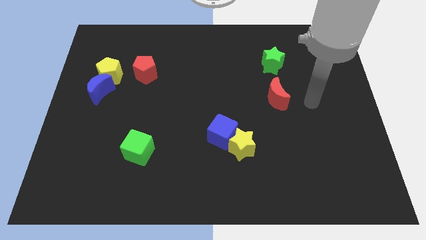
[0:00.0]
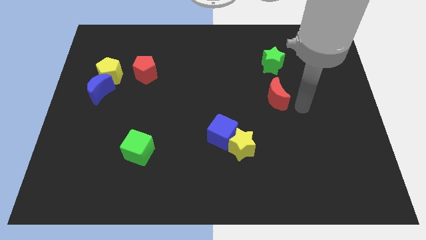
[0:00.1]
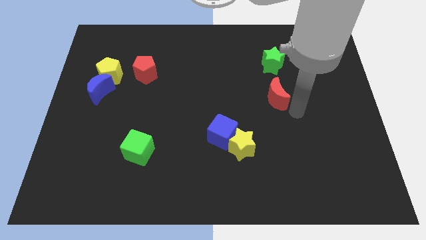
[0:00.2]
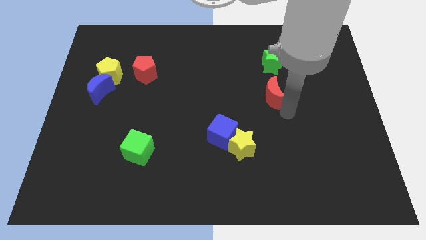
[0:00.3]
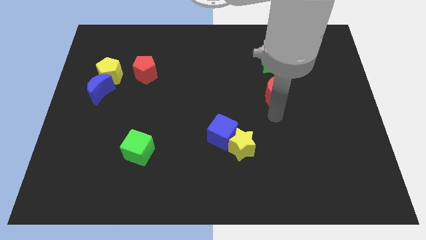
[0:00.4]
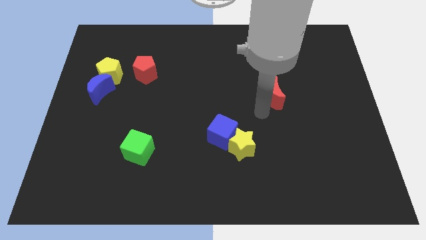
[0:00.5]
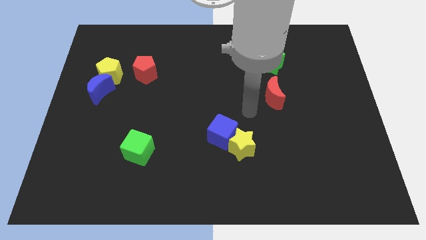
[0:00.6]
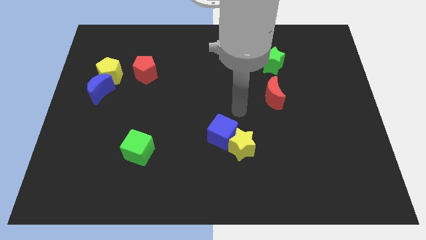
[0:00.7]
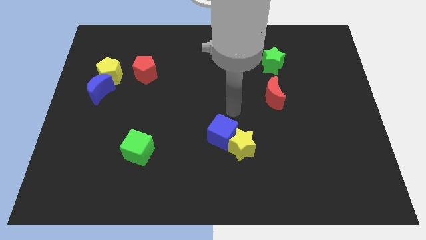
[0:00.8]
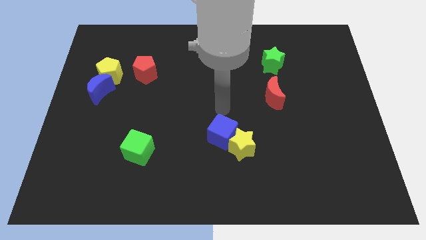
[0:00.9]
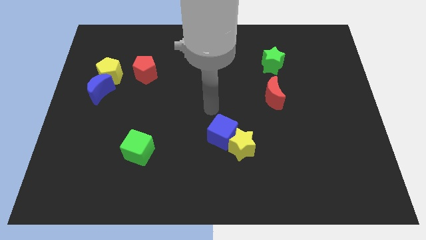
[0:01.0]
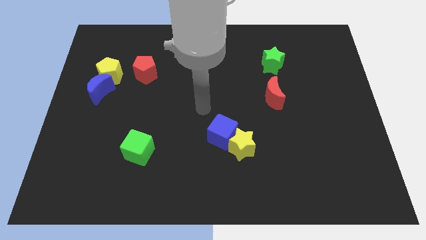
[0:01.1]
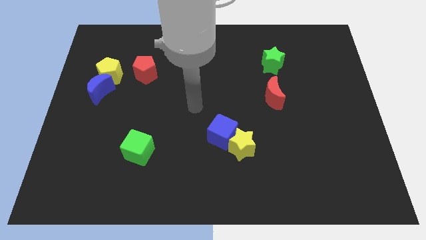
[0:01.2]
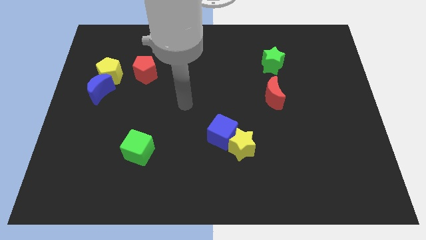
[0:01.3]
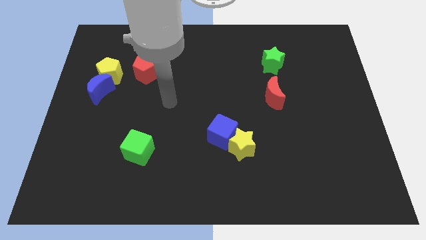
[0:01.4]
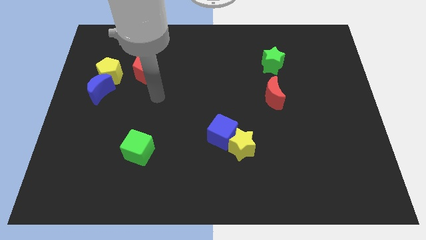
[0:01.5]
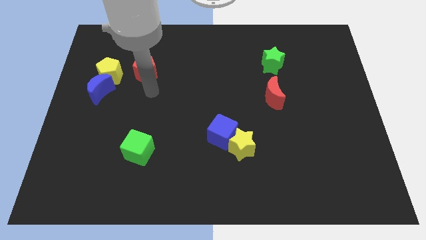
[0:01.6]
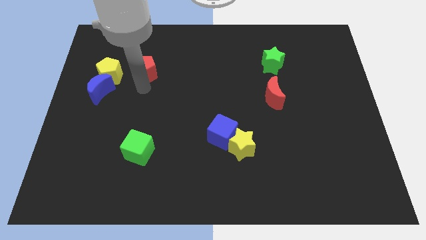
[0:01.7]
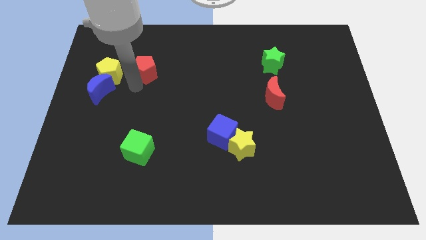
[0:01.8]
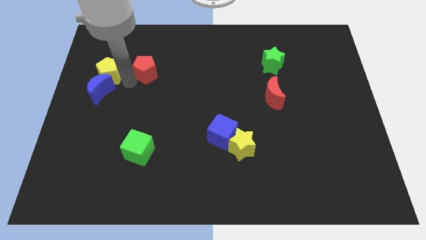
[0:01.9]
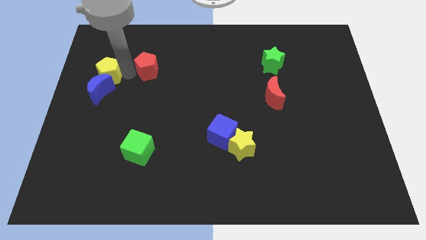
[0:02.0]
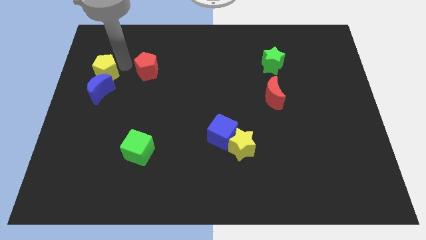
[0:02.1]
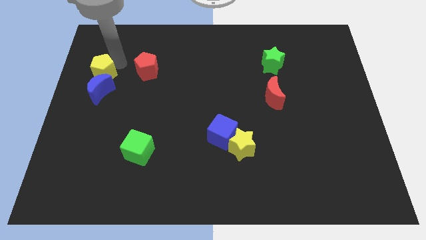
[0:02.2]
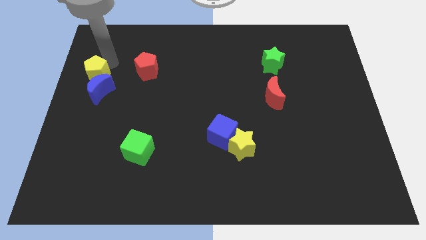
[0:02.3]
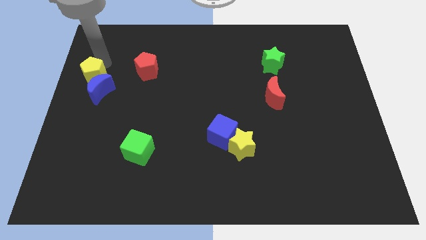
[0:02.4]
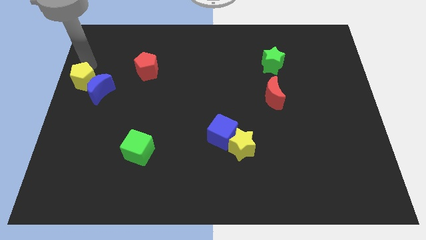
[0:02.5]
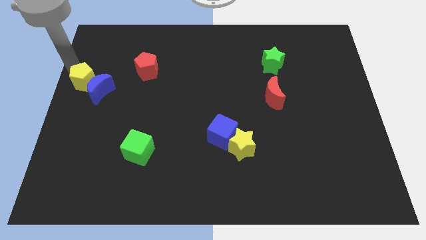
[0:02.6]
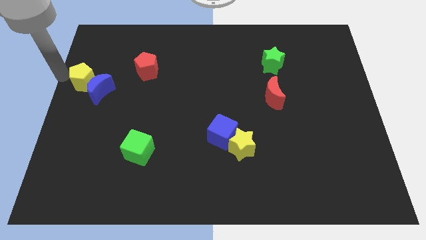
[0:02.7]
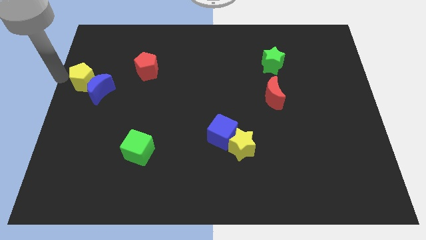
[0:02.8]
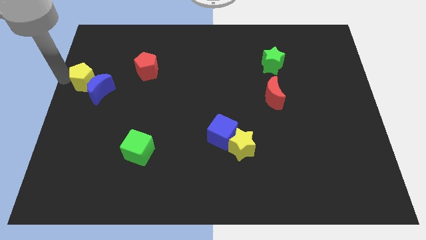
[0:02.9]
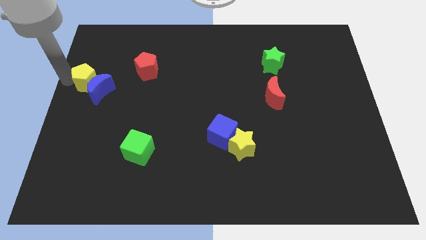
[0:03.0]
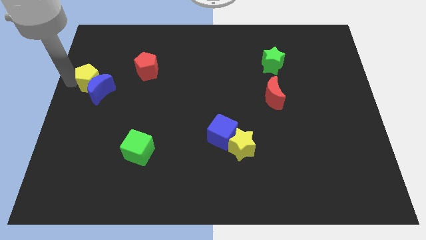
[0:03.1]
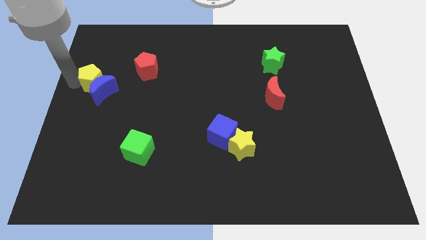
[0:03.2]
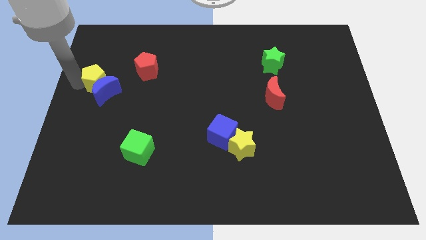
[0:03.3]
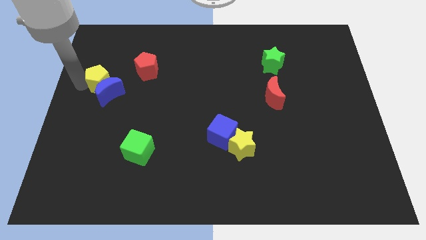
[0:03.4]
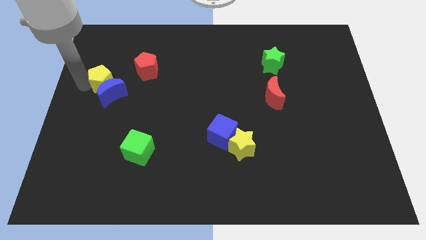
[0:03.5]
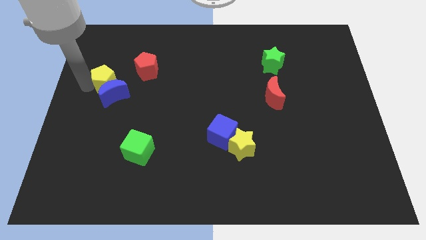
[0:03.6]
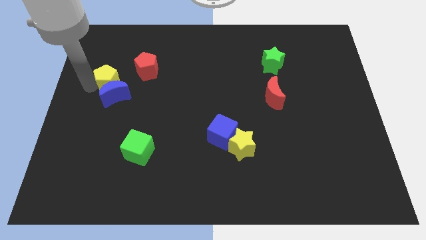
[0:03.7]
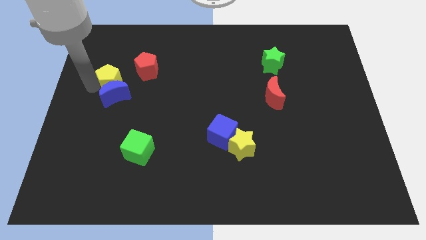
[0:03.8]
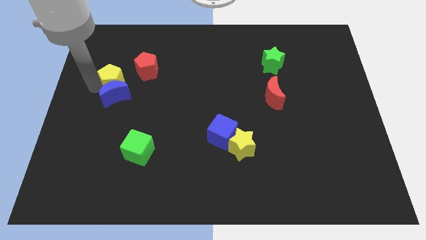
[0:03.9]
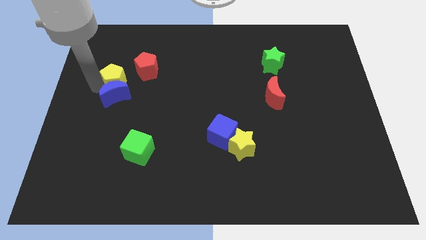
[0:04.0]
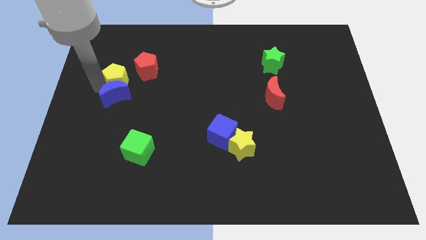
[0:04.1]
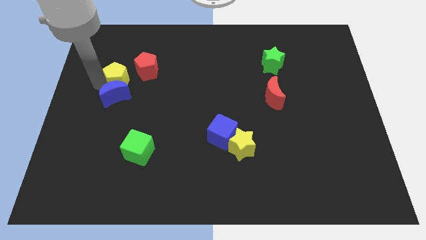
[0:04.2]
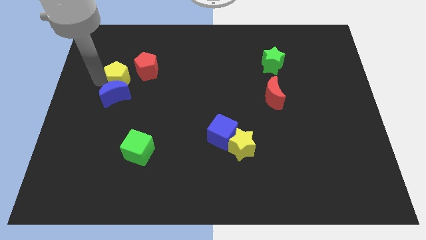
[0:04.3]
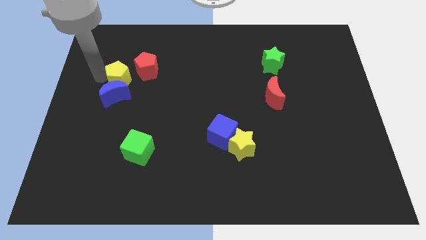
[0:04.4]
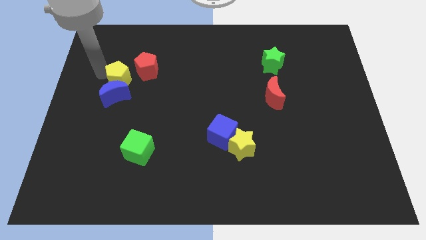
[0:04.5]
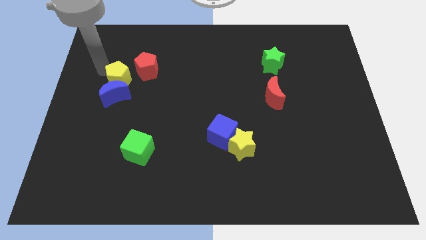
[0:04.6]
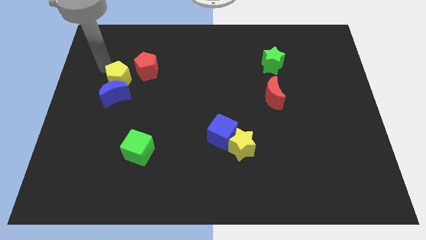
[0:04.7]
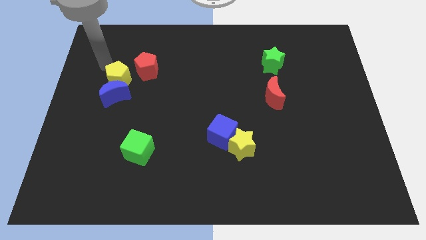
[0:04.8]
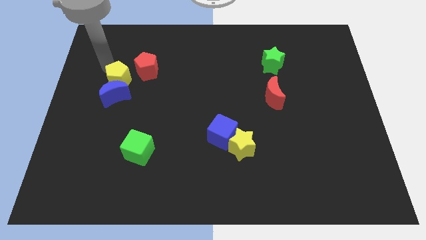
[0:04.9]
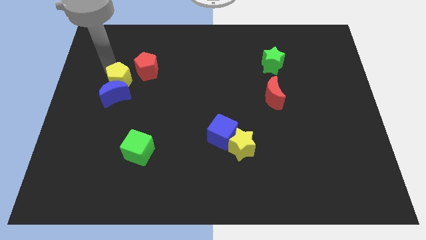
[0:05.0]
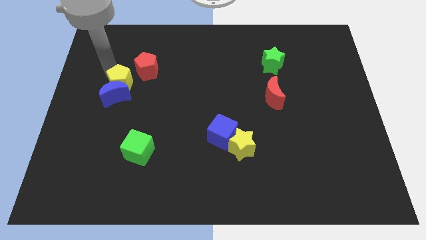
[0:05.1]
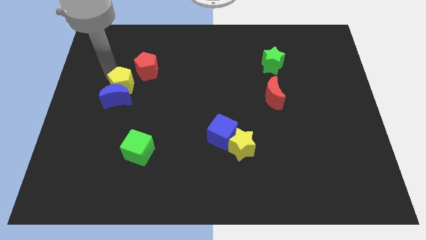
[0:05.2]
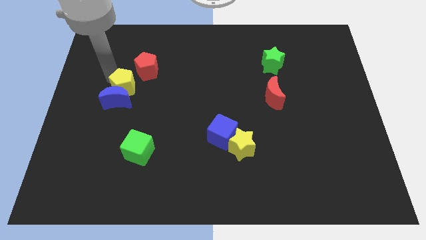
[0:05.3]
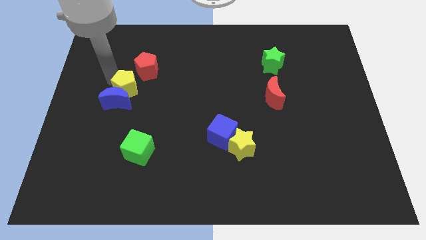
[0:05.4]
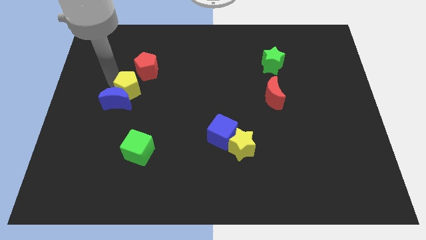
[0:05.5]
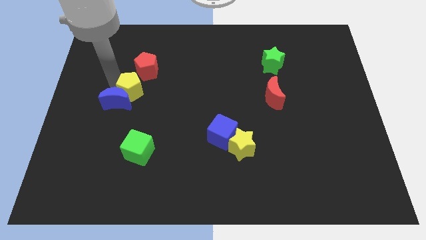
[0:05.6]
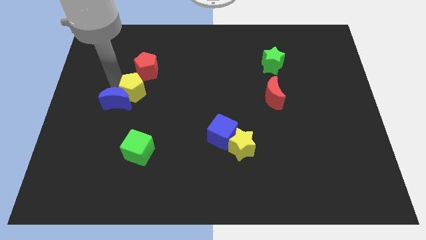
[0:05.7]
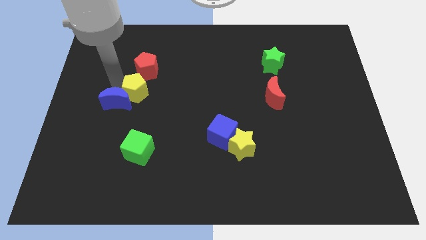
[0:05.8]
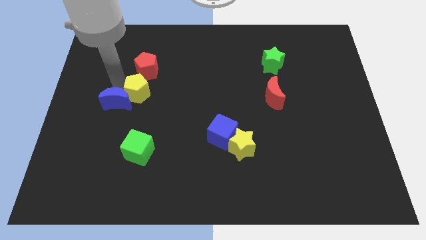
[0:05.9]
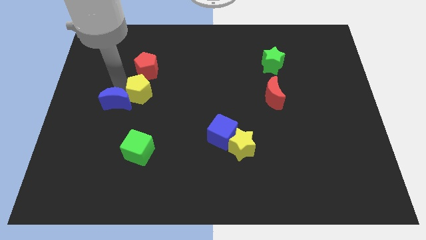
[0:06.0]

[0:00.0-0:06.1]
slightly push the yellow pentagon to the right

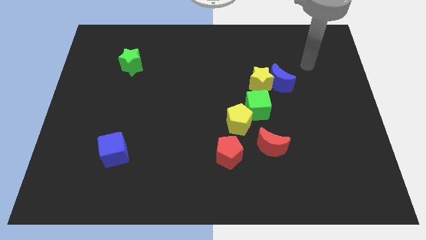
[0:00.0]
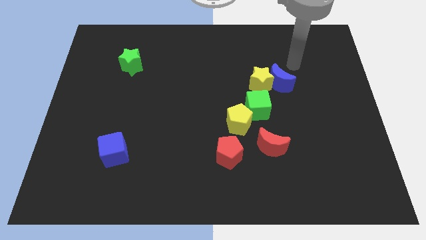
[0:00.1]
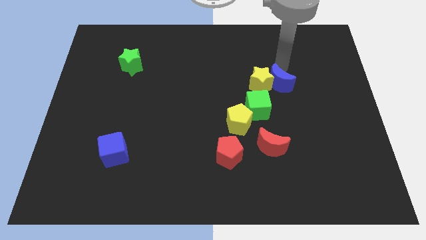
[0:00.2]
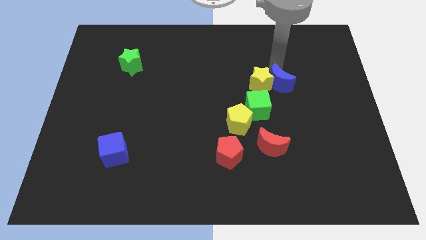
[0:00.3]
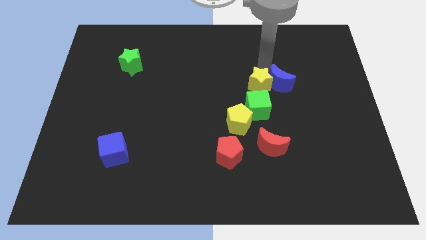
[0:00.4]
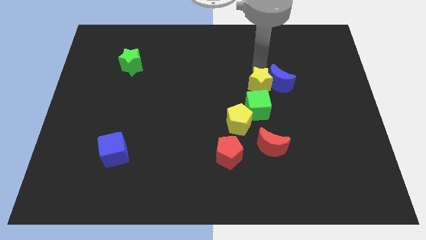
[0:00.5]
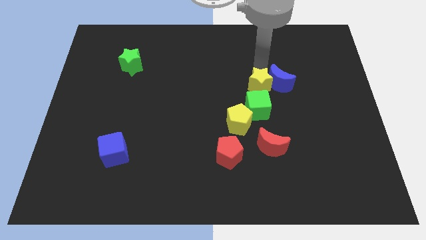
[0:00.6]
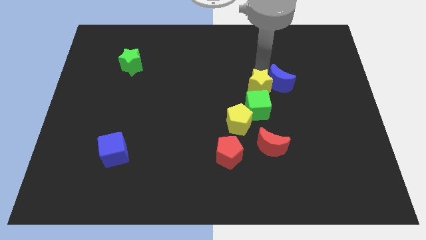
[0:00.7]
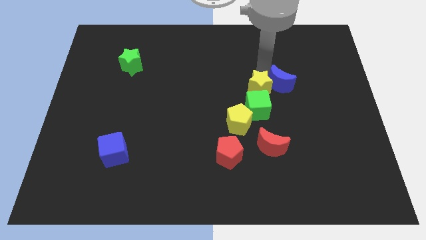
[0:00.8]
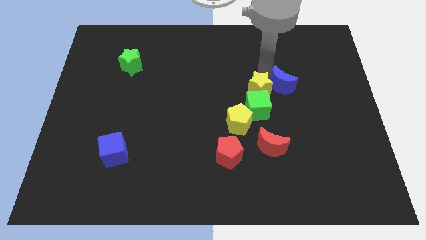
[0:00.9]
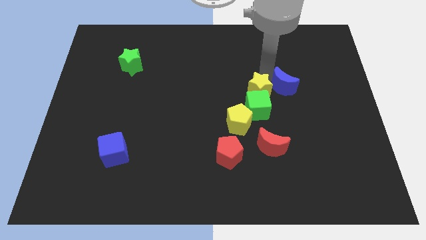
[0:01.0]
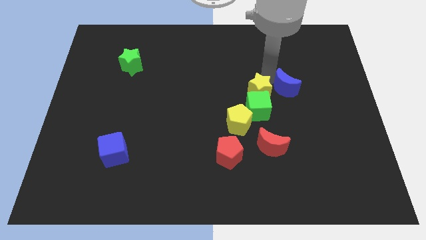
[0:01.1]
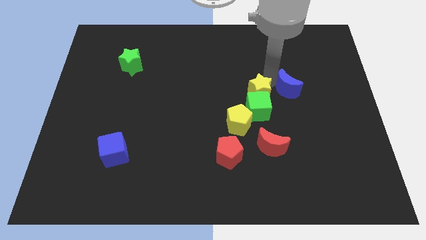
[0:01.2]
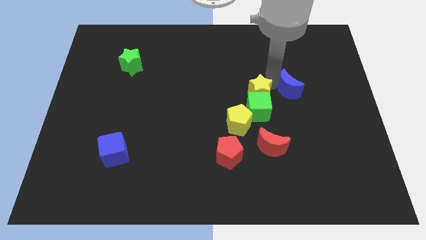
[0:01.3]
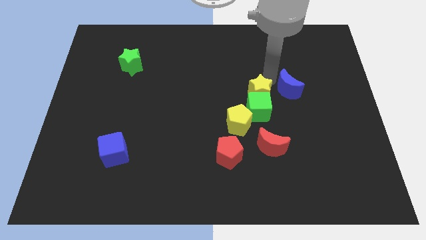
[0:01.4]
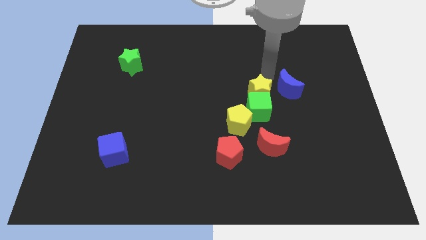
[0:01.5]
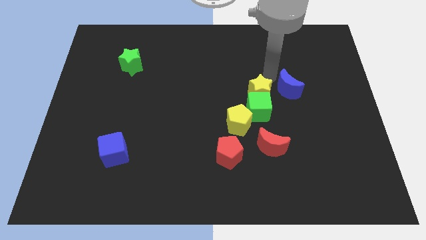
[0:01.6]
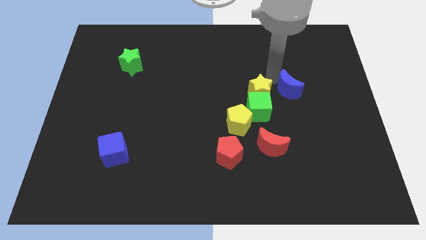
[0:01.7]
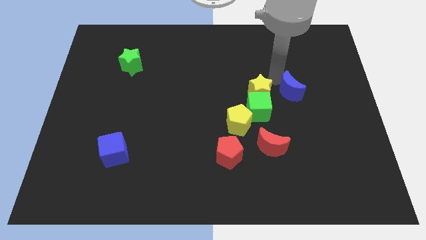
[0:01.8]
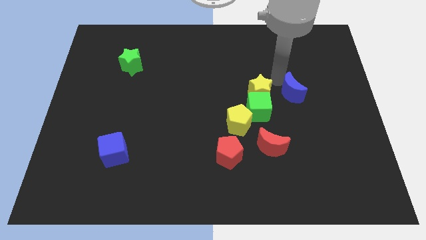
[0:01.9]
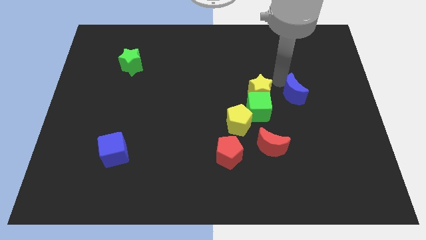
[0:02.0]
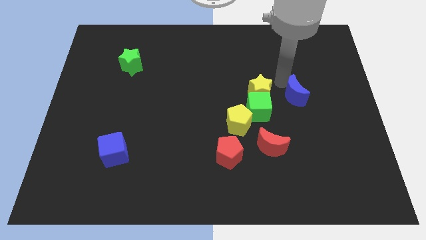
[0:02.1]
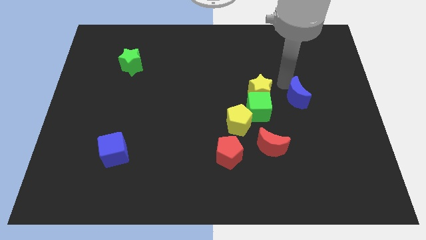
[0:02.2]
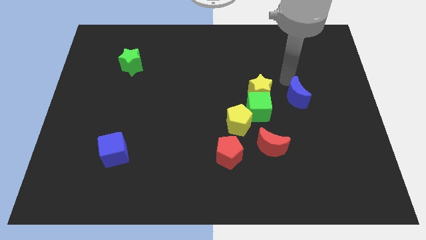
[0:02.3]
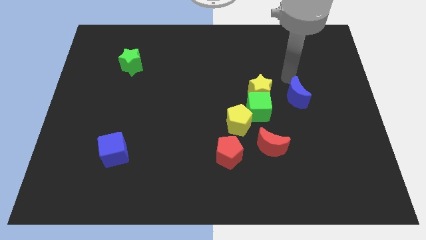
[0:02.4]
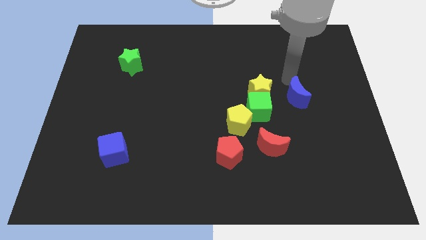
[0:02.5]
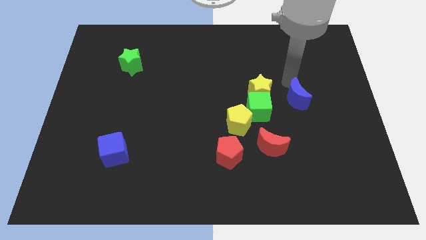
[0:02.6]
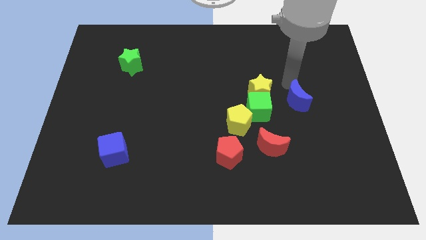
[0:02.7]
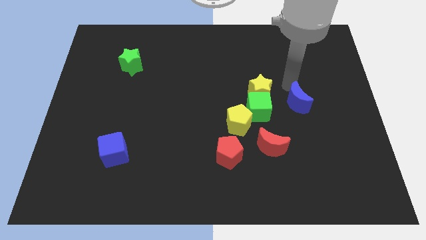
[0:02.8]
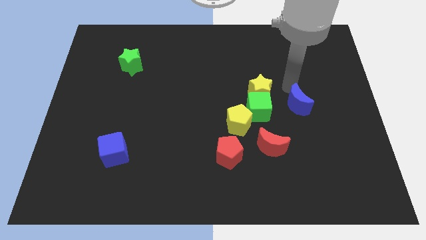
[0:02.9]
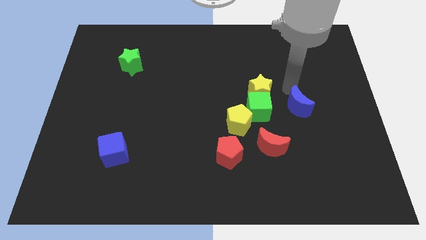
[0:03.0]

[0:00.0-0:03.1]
slightly slide the blue moon downwards
